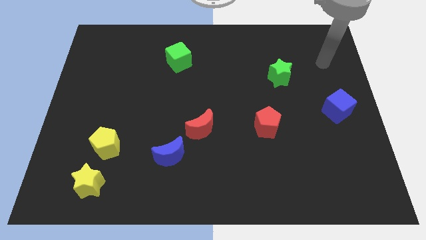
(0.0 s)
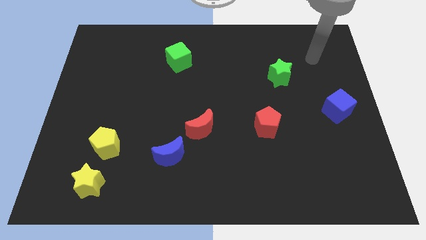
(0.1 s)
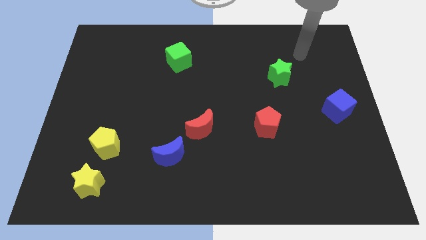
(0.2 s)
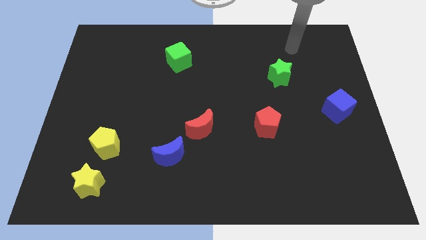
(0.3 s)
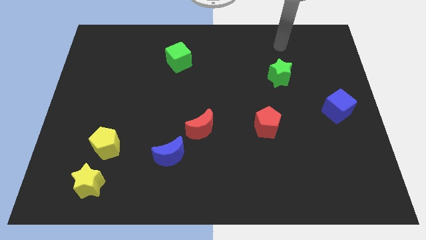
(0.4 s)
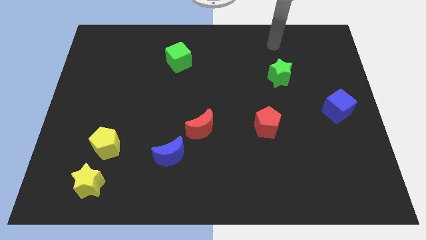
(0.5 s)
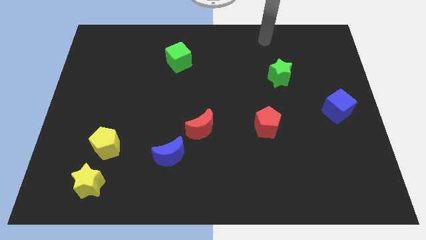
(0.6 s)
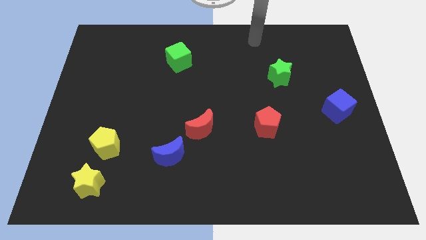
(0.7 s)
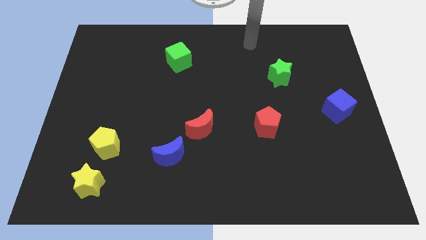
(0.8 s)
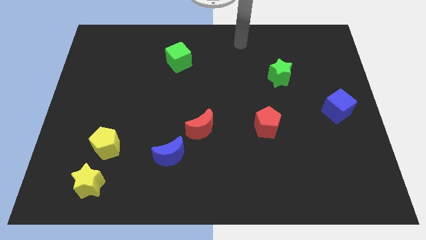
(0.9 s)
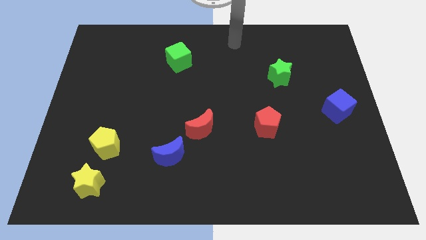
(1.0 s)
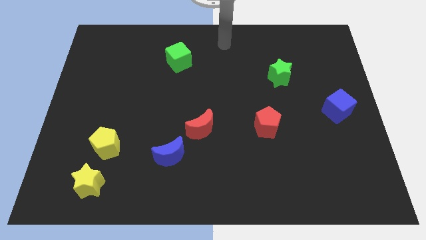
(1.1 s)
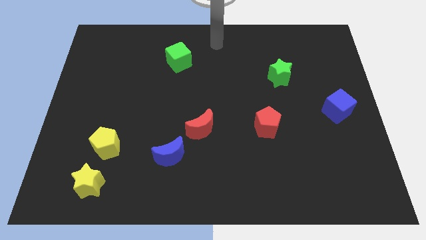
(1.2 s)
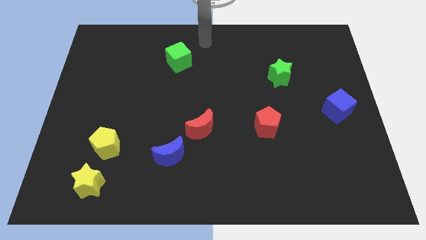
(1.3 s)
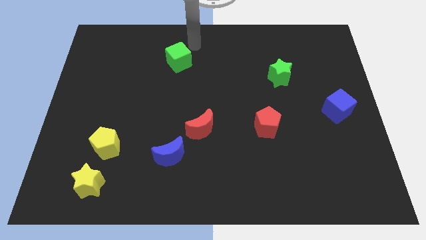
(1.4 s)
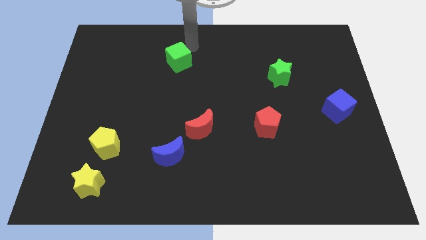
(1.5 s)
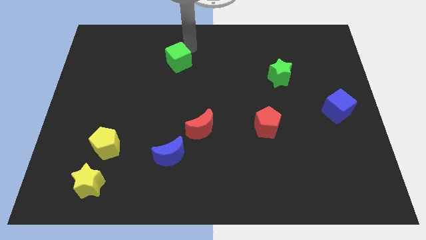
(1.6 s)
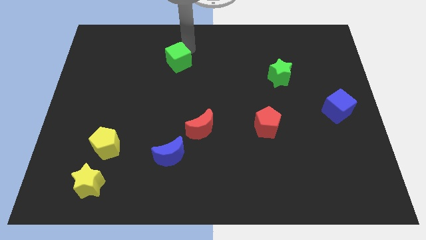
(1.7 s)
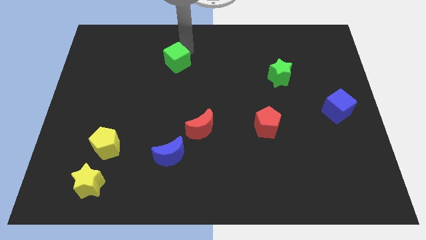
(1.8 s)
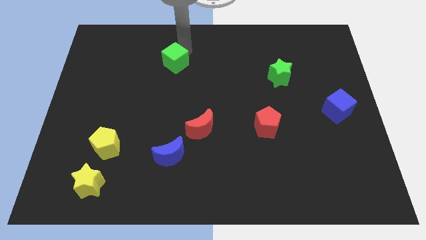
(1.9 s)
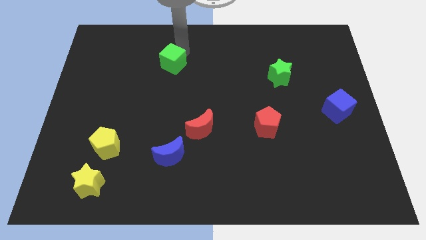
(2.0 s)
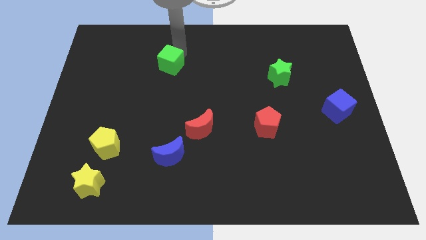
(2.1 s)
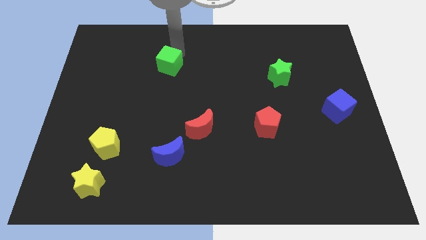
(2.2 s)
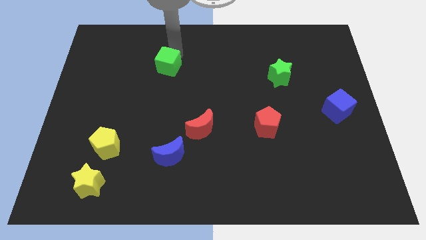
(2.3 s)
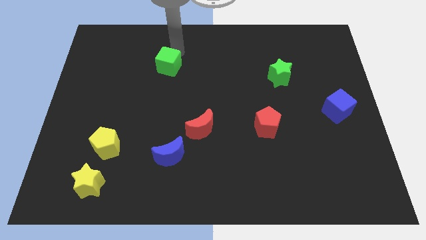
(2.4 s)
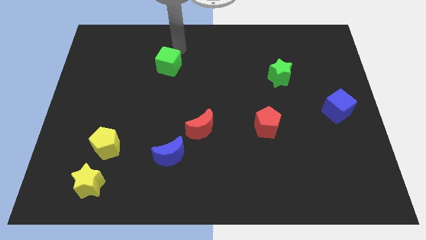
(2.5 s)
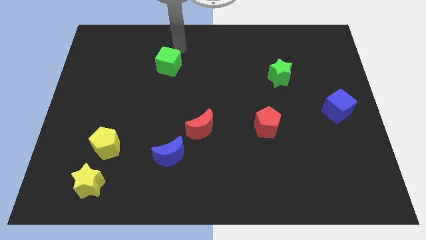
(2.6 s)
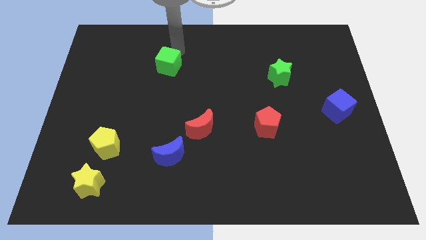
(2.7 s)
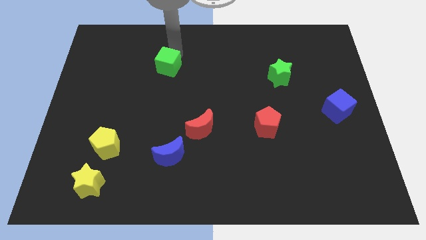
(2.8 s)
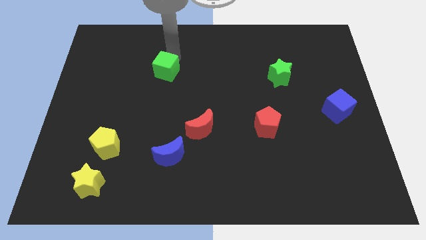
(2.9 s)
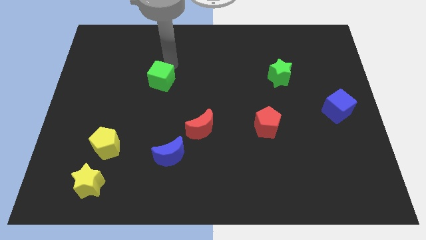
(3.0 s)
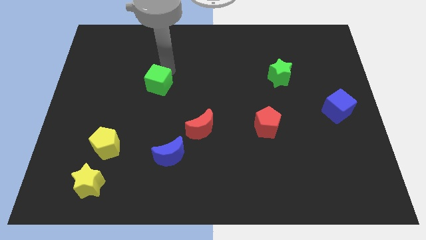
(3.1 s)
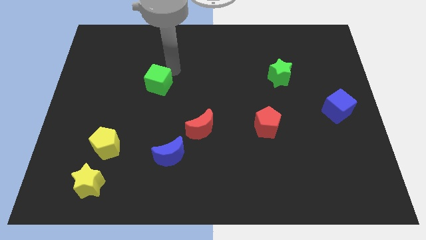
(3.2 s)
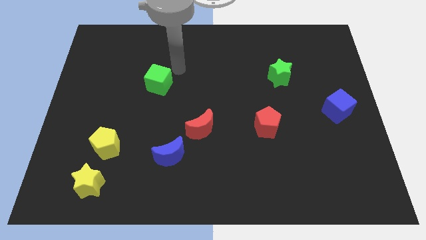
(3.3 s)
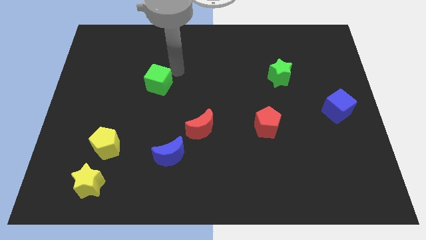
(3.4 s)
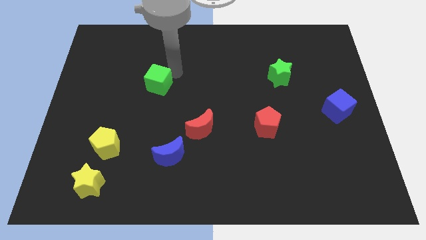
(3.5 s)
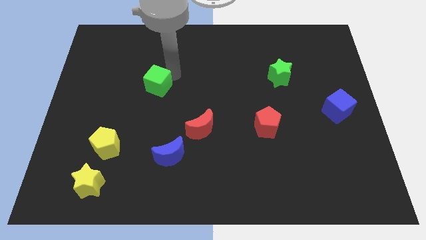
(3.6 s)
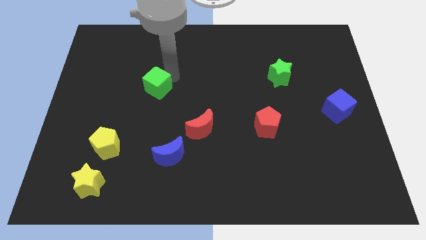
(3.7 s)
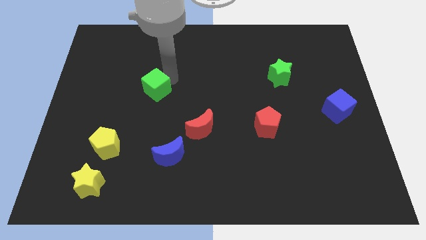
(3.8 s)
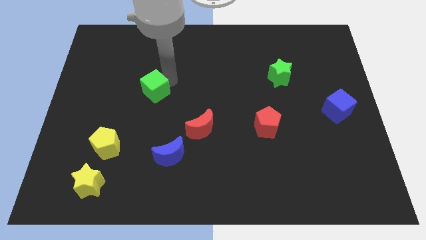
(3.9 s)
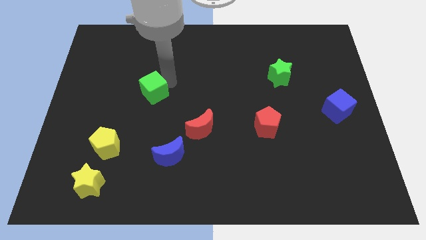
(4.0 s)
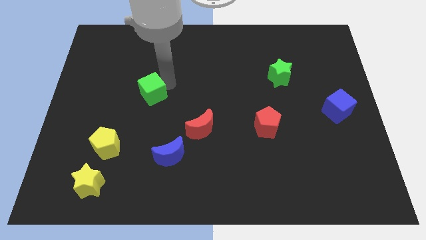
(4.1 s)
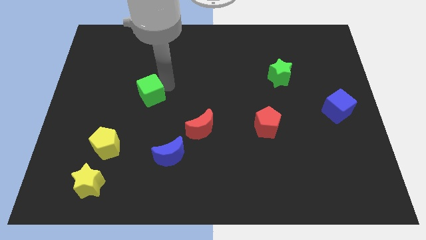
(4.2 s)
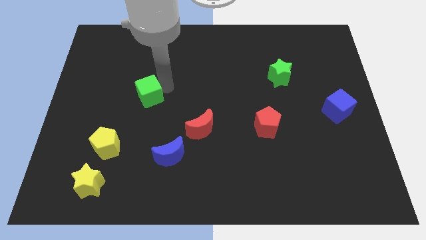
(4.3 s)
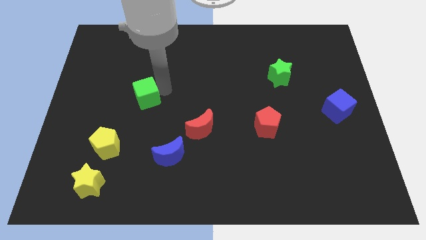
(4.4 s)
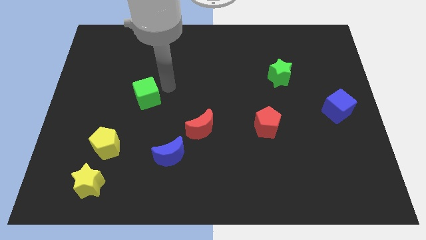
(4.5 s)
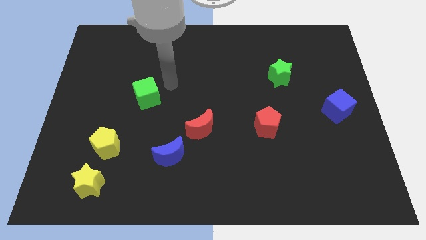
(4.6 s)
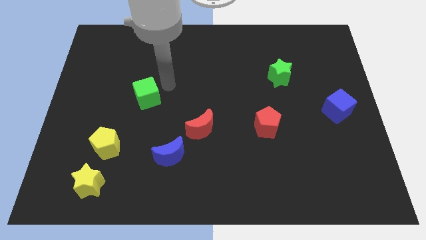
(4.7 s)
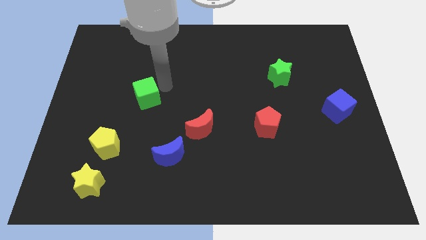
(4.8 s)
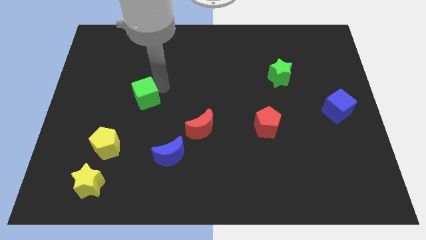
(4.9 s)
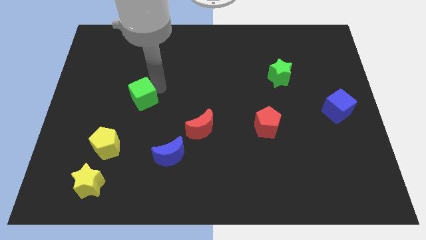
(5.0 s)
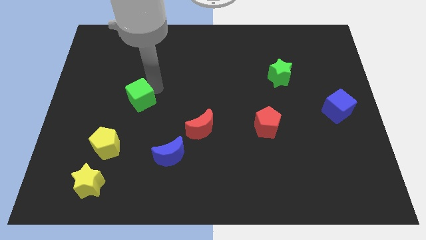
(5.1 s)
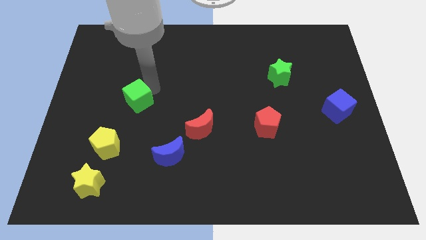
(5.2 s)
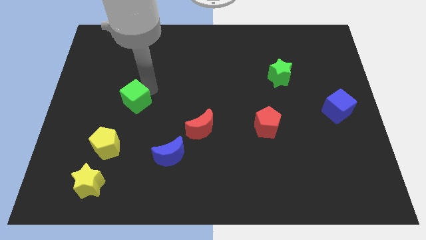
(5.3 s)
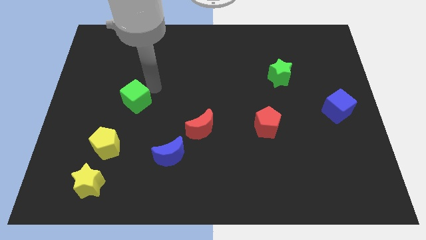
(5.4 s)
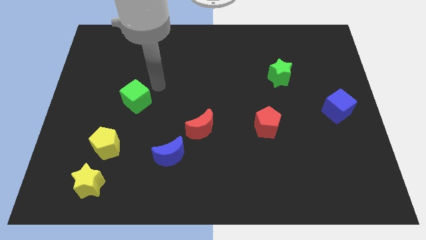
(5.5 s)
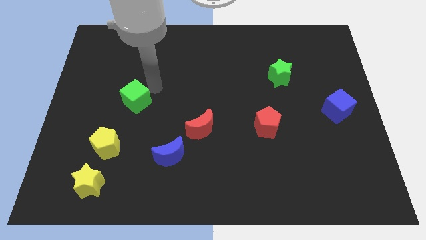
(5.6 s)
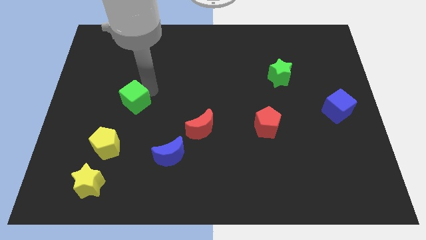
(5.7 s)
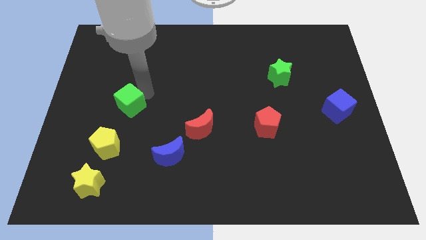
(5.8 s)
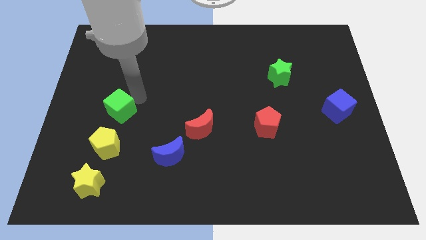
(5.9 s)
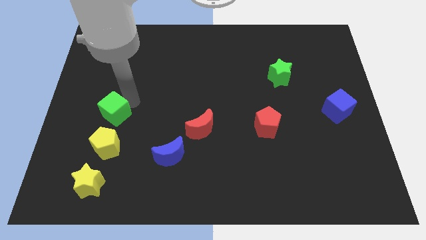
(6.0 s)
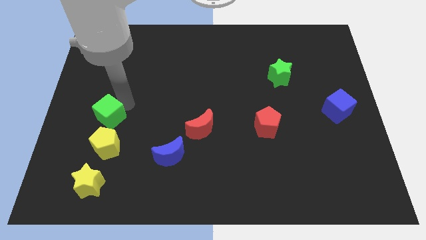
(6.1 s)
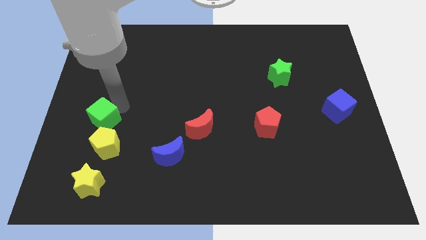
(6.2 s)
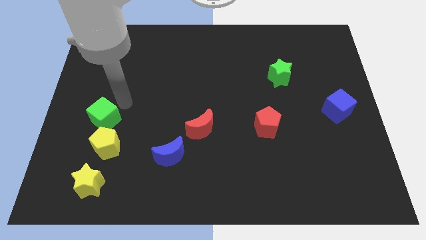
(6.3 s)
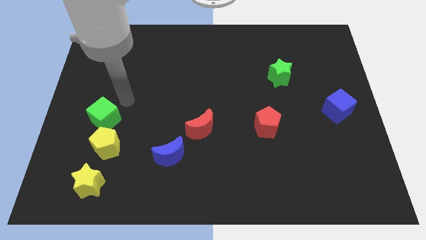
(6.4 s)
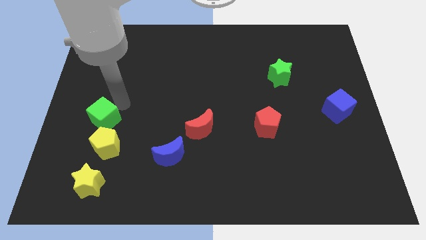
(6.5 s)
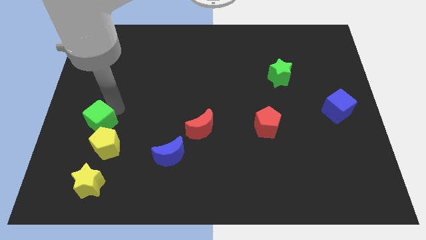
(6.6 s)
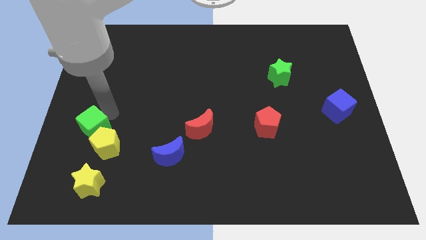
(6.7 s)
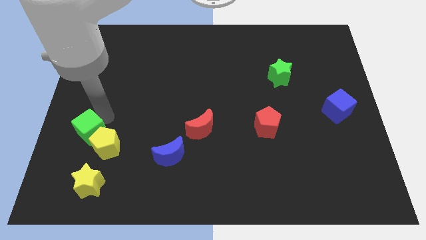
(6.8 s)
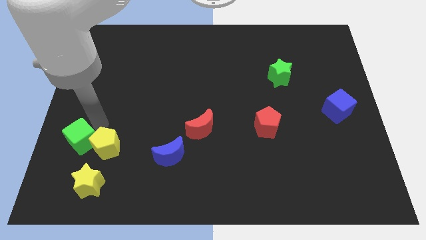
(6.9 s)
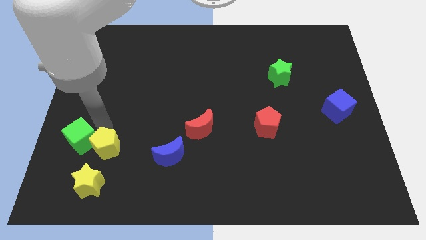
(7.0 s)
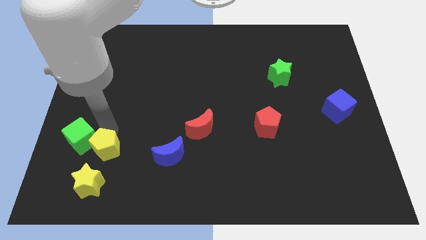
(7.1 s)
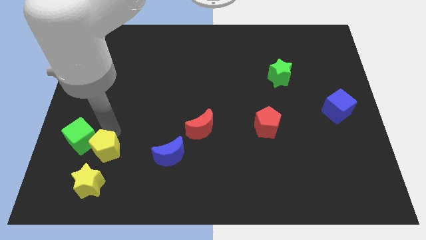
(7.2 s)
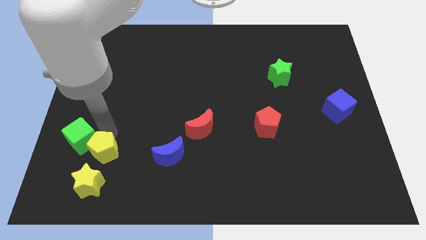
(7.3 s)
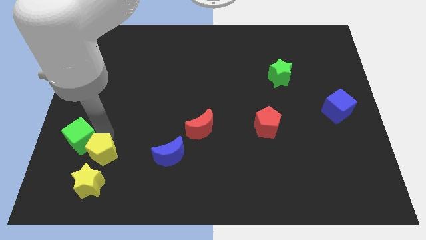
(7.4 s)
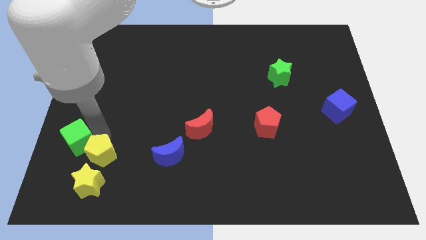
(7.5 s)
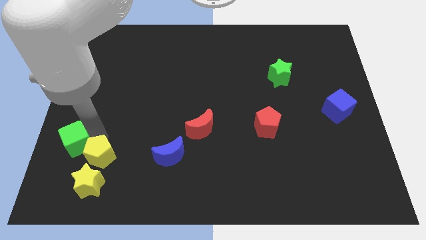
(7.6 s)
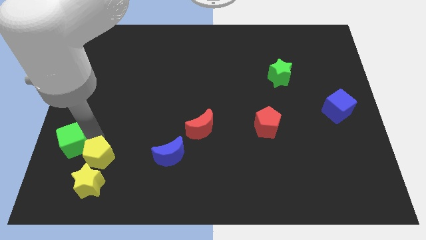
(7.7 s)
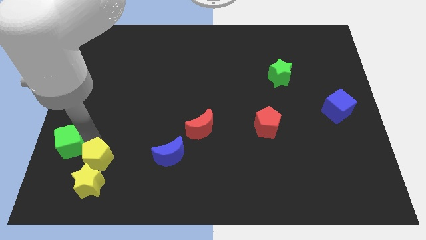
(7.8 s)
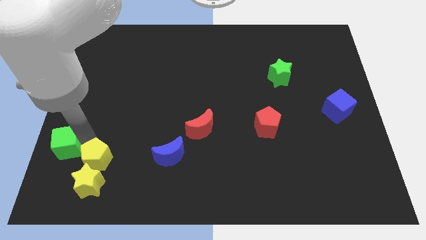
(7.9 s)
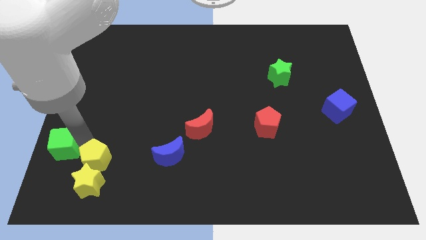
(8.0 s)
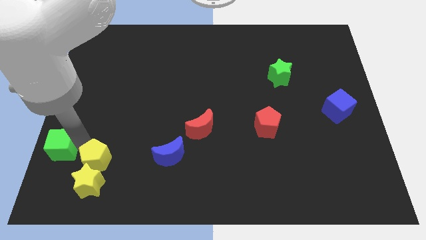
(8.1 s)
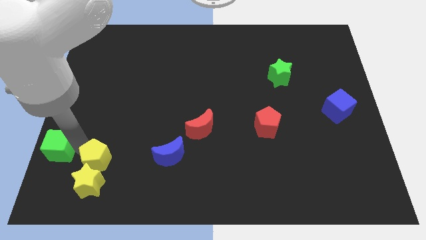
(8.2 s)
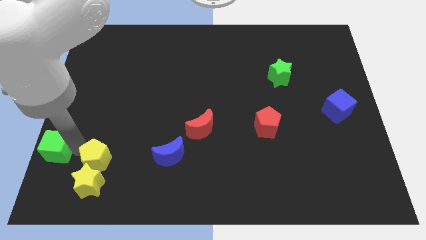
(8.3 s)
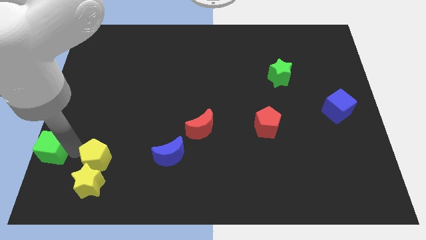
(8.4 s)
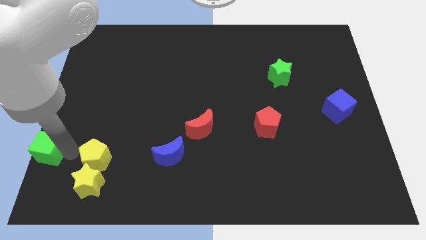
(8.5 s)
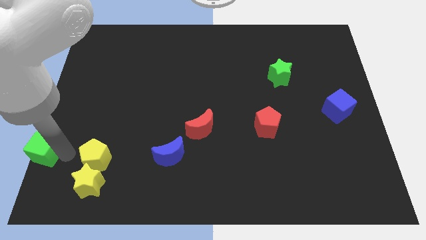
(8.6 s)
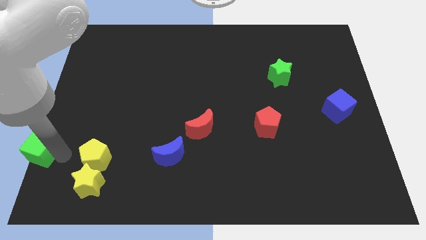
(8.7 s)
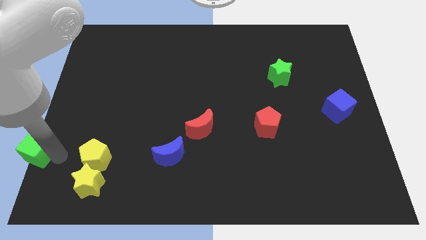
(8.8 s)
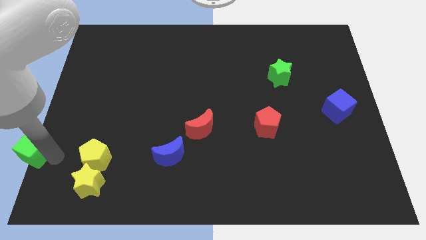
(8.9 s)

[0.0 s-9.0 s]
move the green cube to the bottom left of the board
